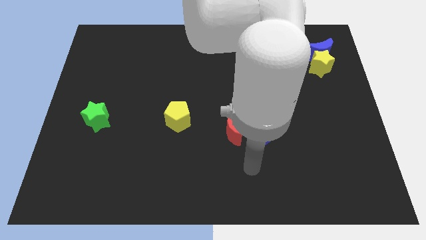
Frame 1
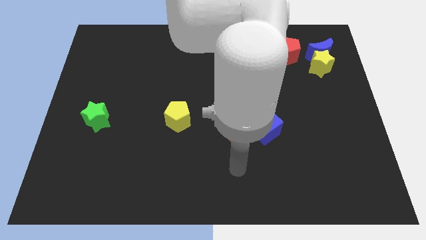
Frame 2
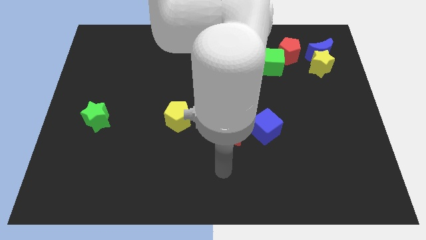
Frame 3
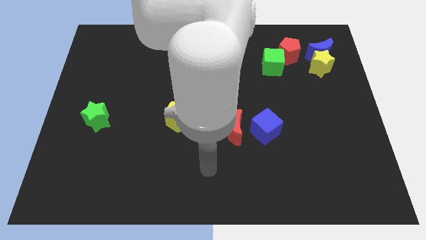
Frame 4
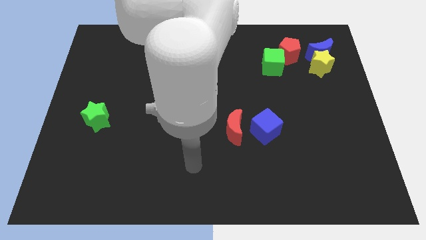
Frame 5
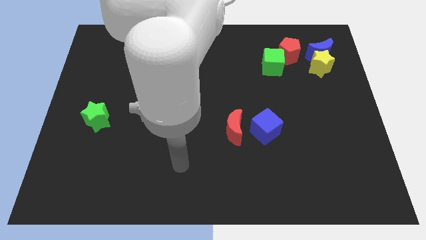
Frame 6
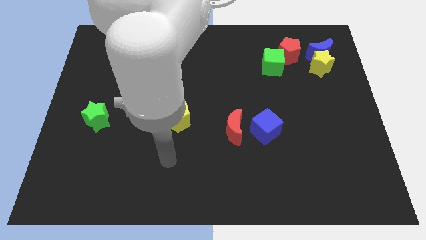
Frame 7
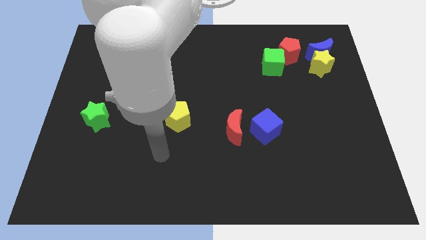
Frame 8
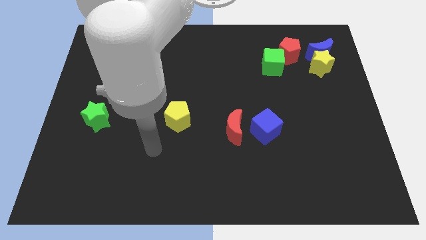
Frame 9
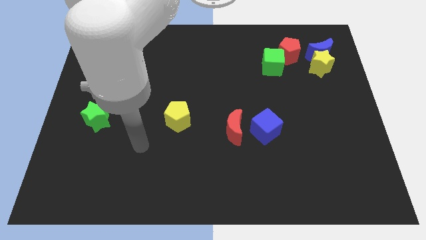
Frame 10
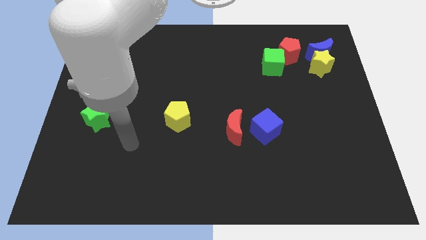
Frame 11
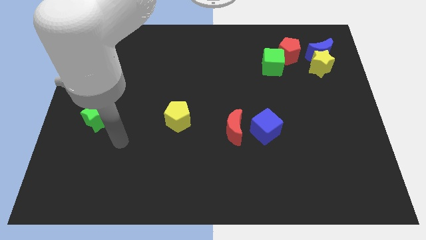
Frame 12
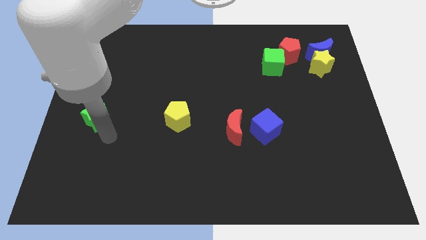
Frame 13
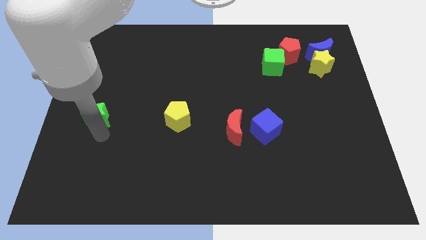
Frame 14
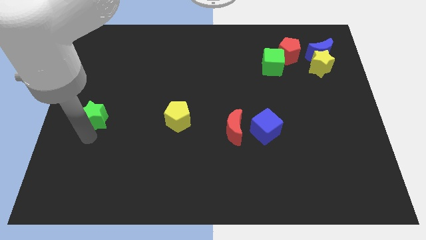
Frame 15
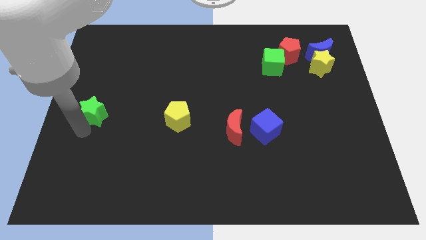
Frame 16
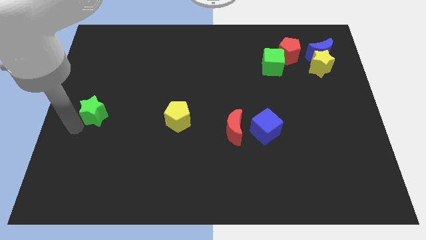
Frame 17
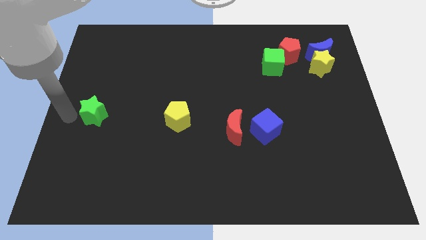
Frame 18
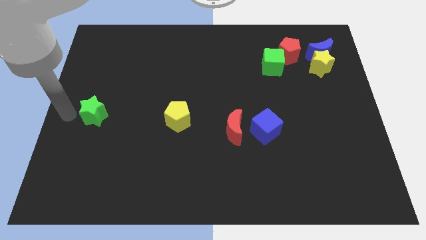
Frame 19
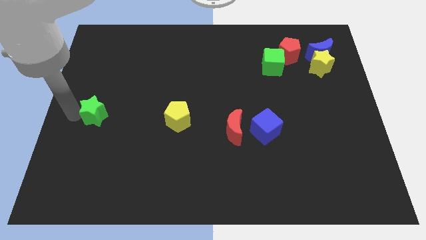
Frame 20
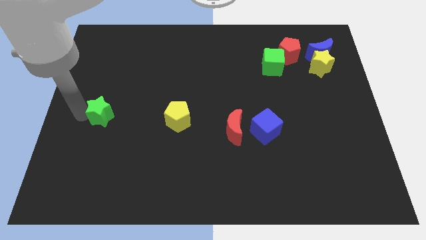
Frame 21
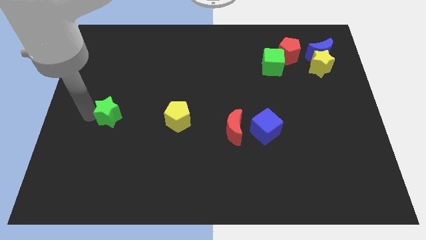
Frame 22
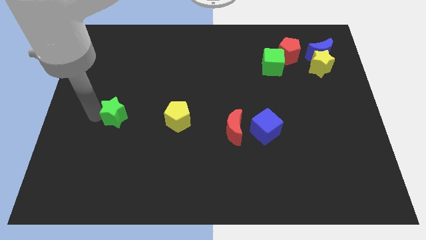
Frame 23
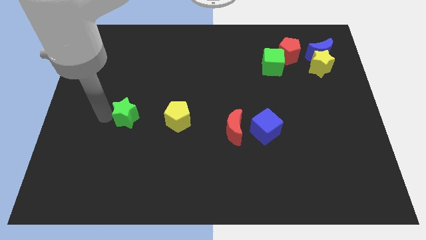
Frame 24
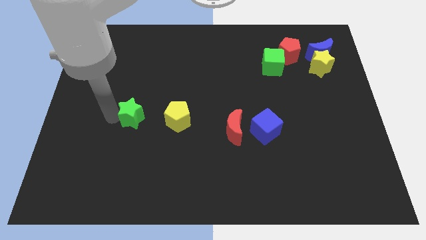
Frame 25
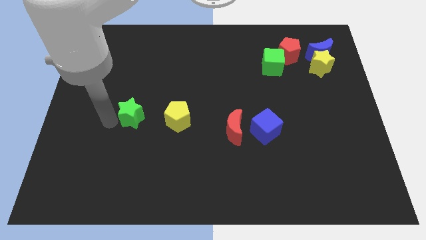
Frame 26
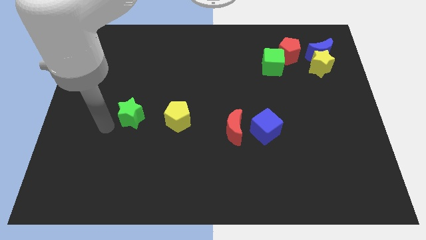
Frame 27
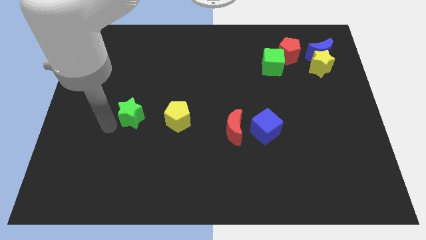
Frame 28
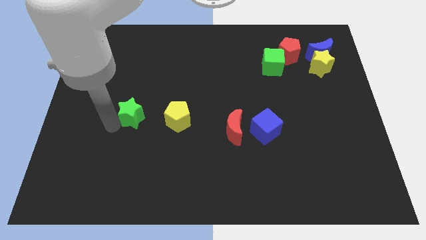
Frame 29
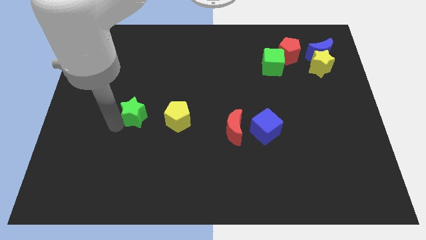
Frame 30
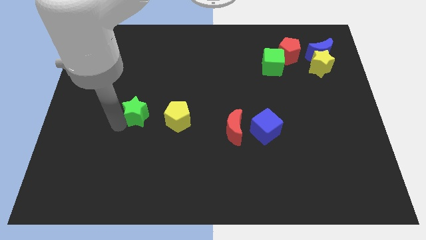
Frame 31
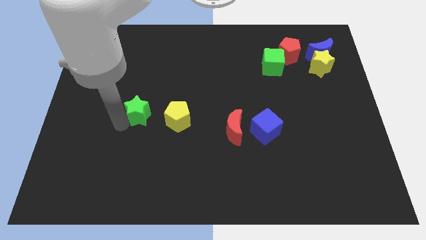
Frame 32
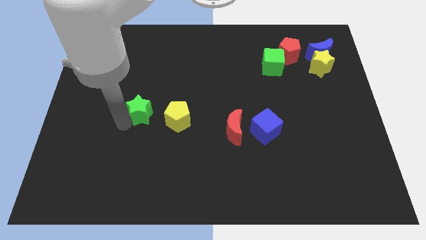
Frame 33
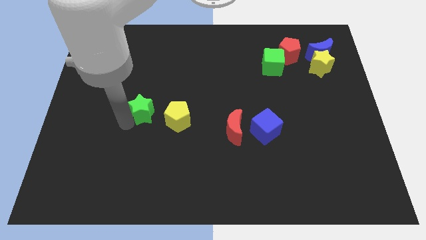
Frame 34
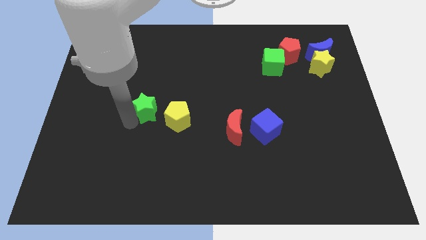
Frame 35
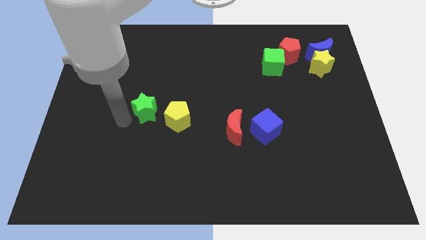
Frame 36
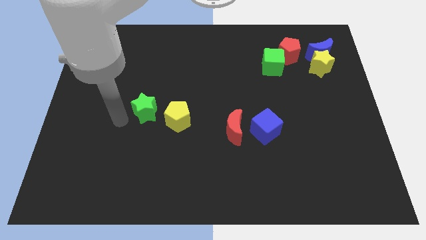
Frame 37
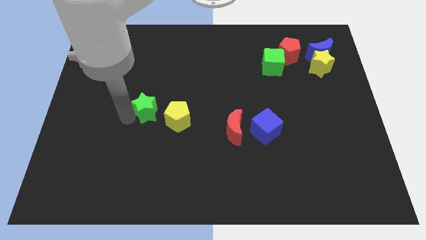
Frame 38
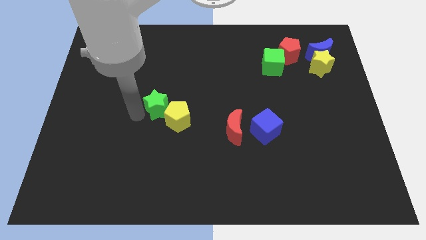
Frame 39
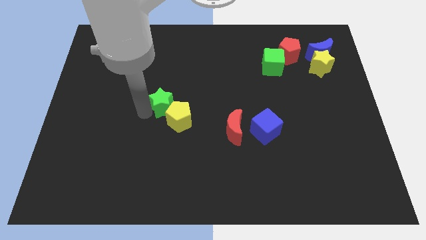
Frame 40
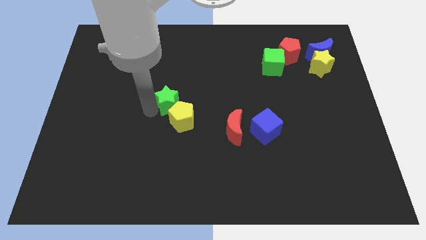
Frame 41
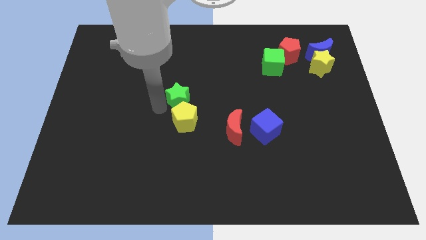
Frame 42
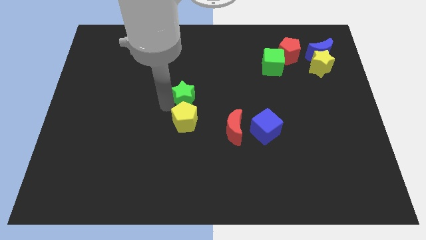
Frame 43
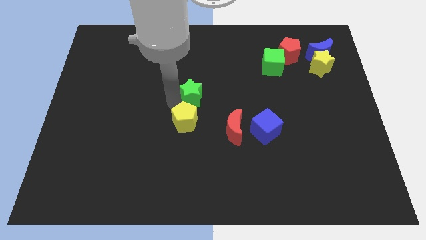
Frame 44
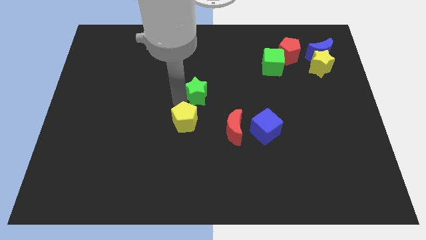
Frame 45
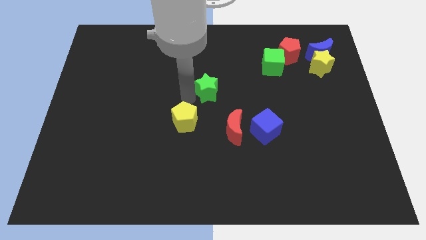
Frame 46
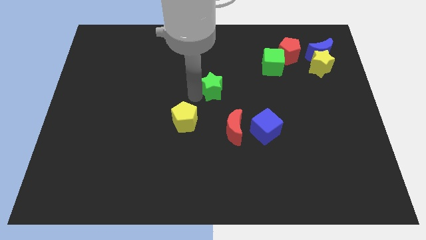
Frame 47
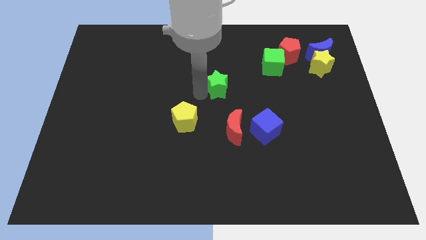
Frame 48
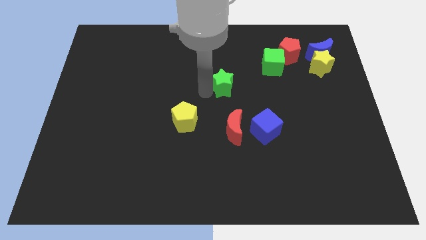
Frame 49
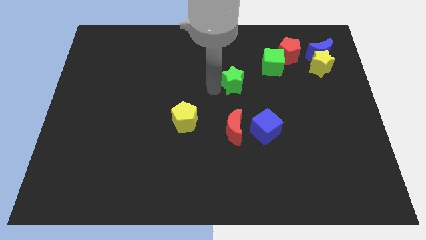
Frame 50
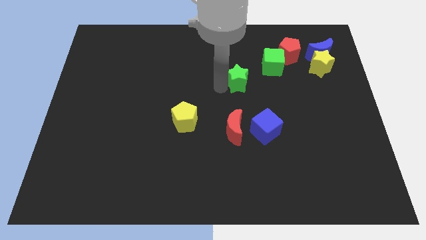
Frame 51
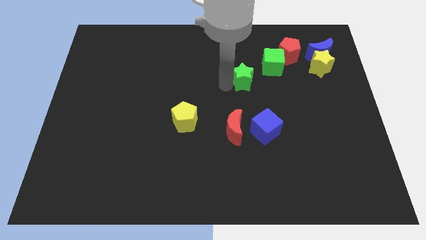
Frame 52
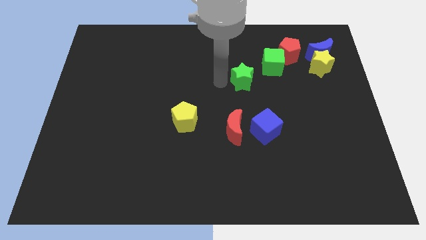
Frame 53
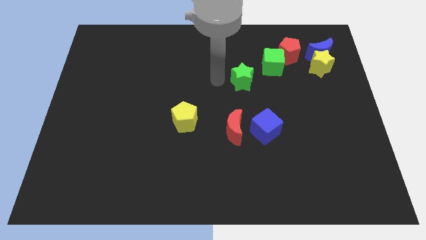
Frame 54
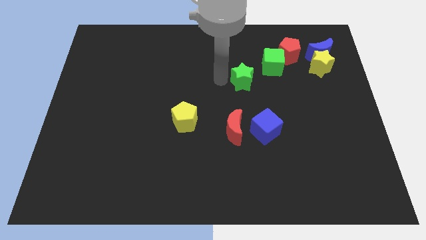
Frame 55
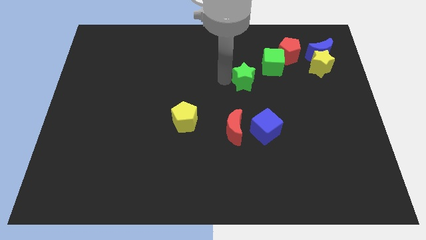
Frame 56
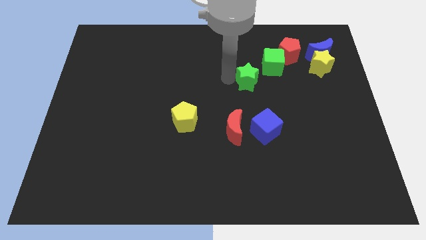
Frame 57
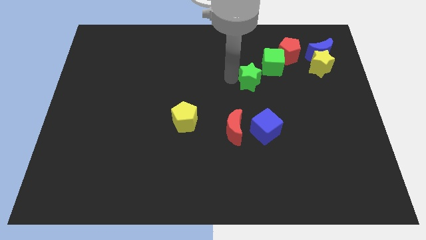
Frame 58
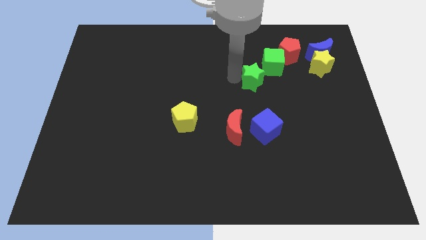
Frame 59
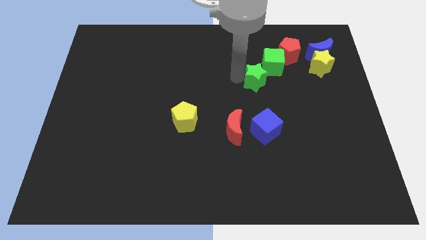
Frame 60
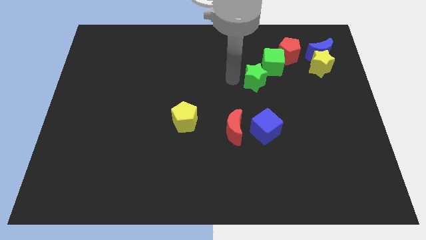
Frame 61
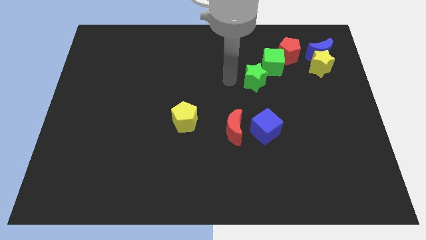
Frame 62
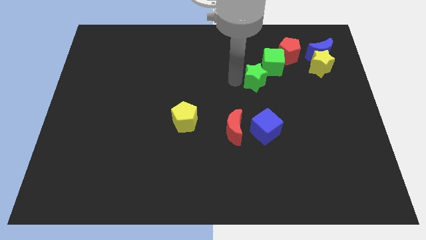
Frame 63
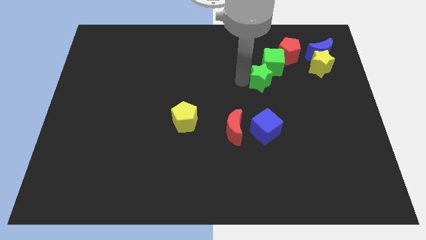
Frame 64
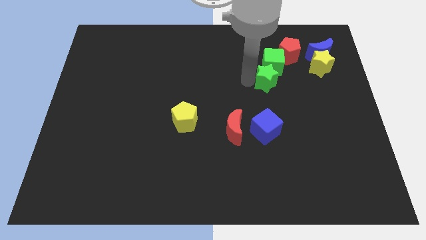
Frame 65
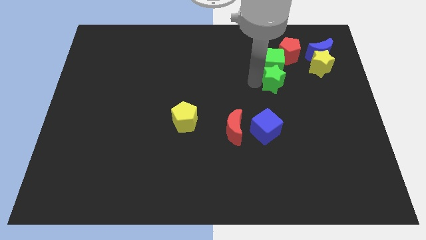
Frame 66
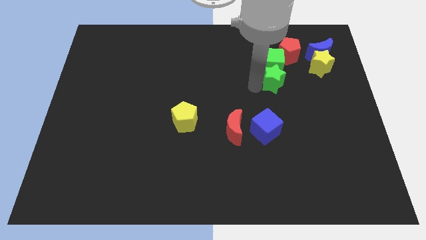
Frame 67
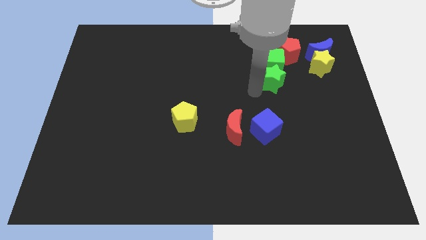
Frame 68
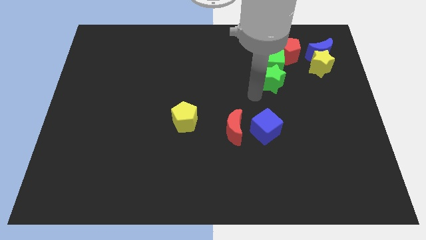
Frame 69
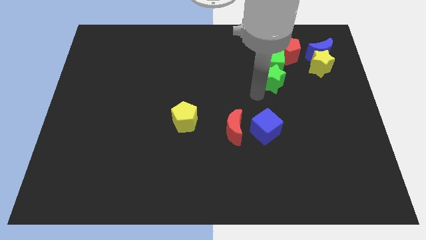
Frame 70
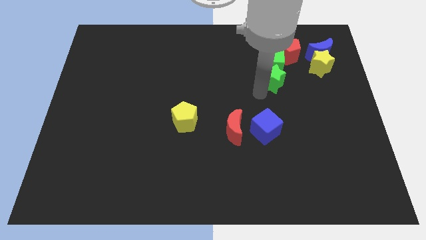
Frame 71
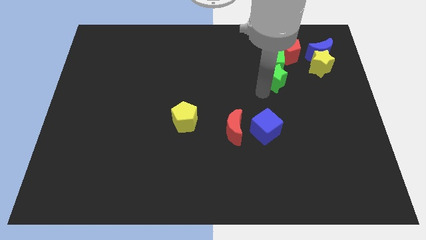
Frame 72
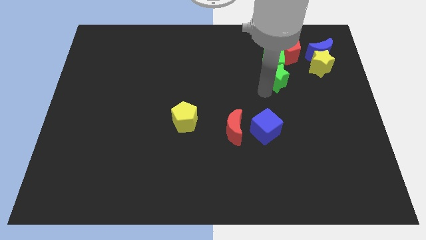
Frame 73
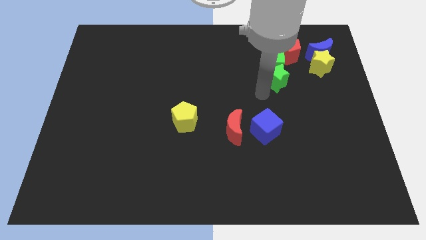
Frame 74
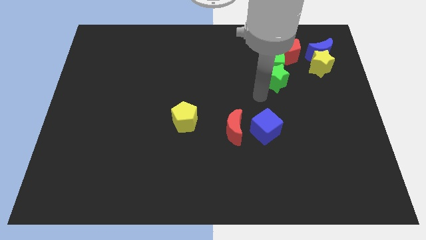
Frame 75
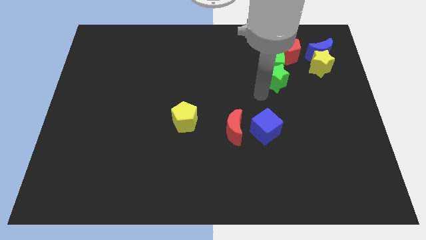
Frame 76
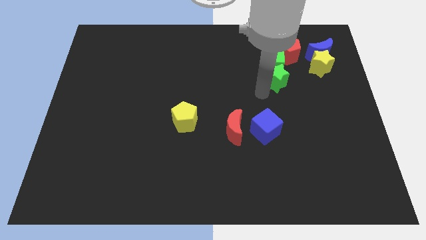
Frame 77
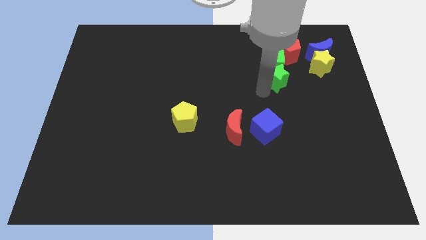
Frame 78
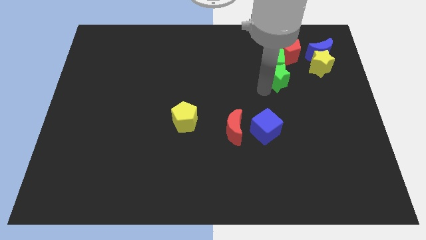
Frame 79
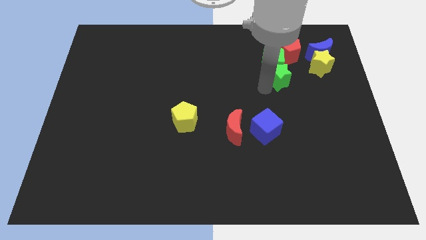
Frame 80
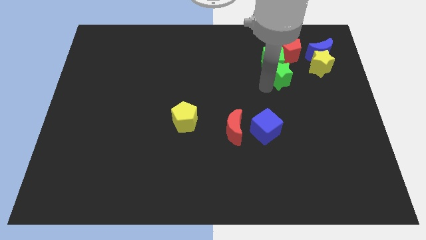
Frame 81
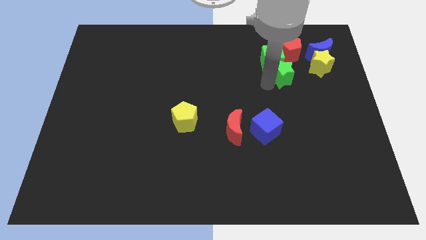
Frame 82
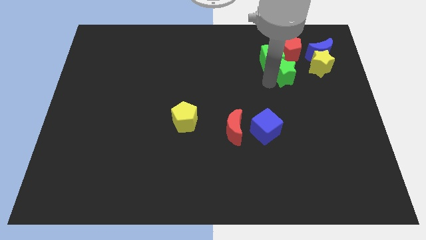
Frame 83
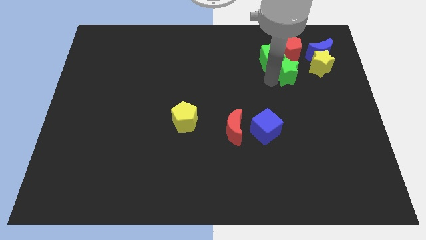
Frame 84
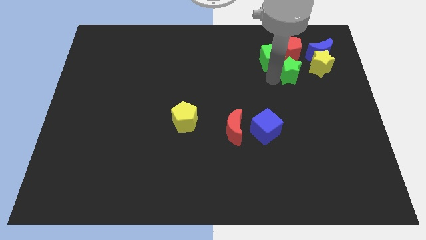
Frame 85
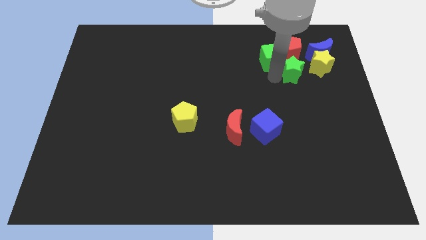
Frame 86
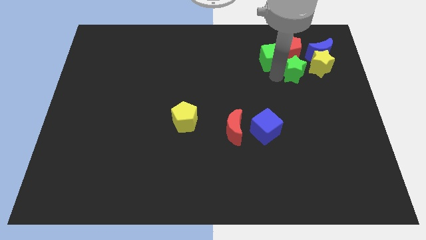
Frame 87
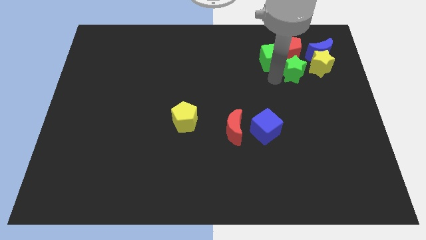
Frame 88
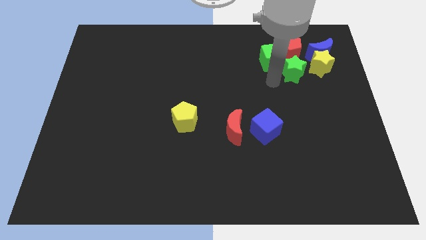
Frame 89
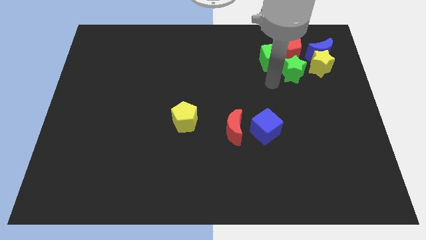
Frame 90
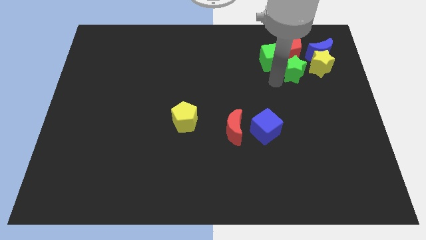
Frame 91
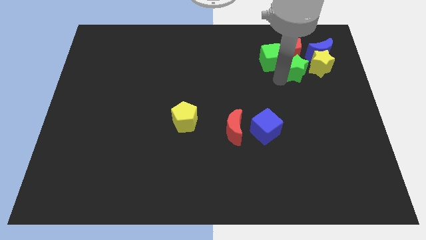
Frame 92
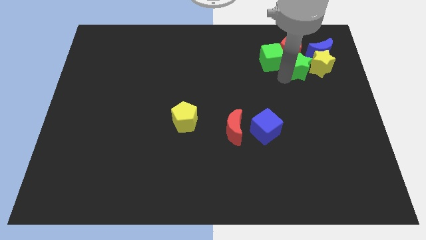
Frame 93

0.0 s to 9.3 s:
push the green star next to the yellow star
